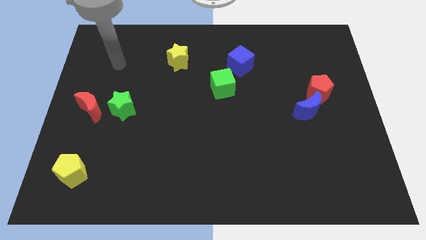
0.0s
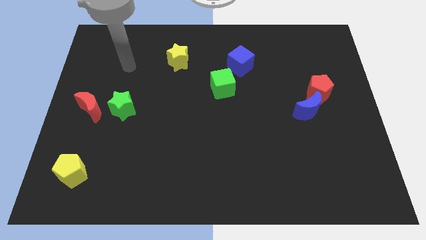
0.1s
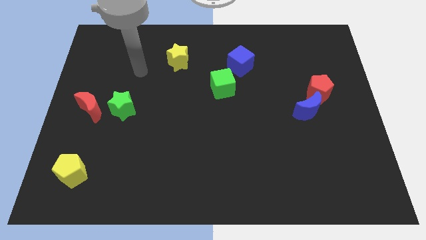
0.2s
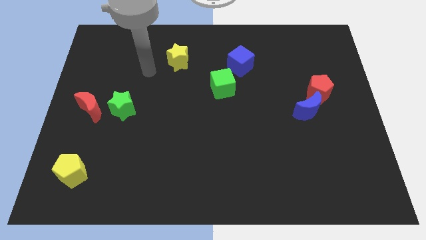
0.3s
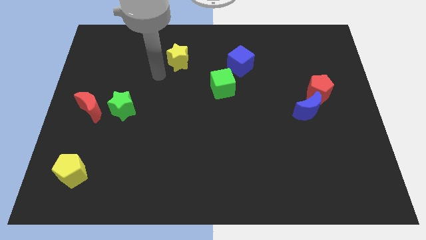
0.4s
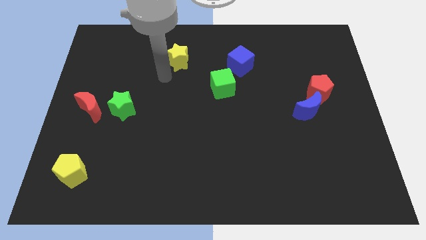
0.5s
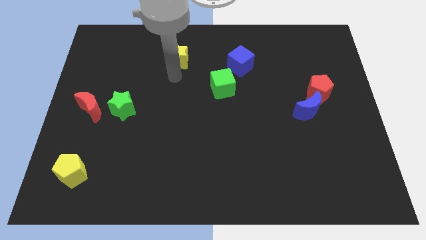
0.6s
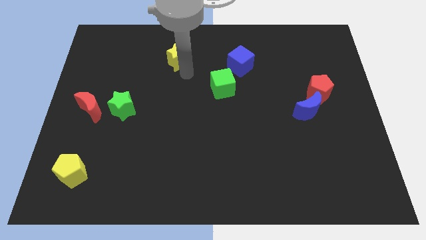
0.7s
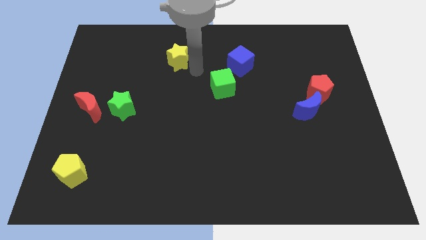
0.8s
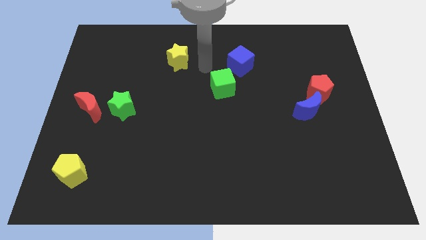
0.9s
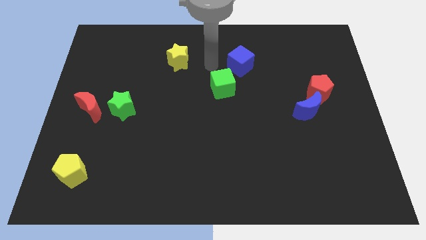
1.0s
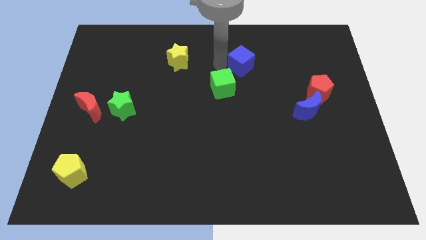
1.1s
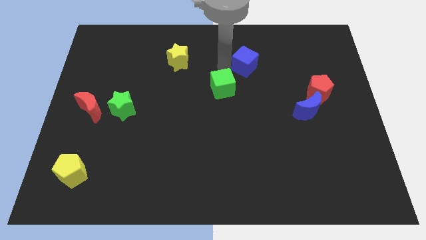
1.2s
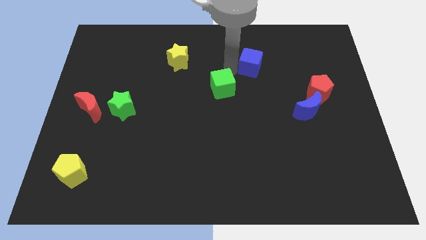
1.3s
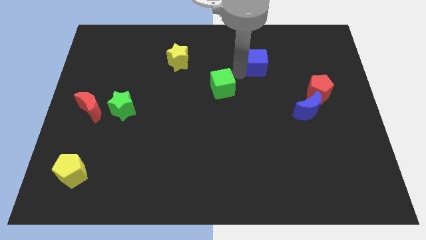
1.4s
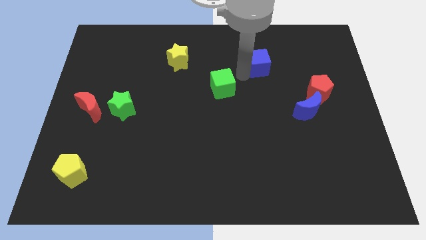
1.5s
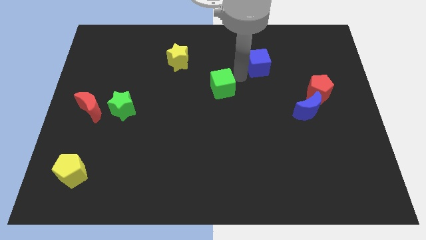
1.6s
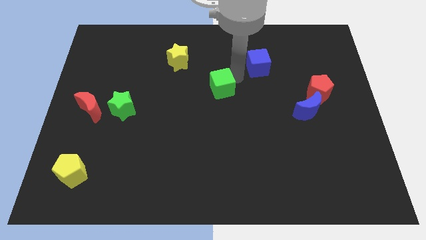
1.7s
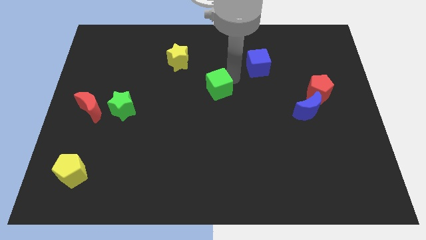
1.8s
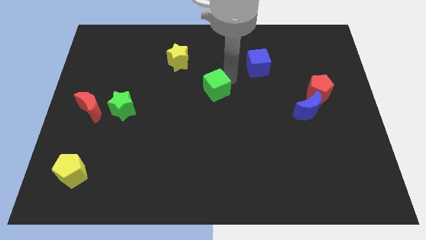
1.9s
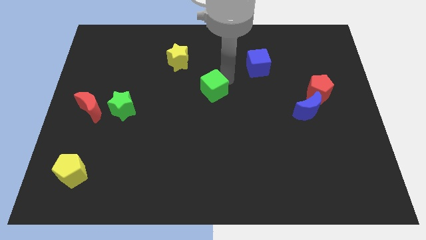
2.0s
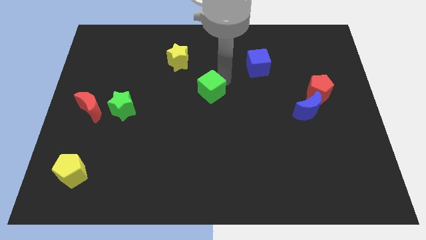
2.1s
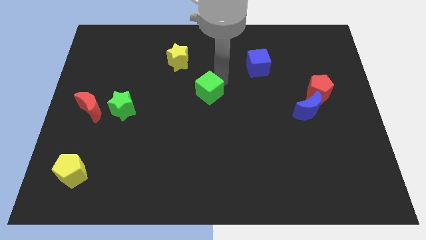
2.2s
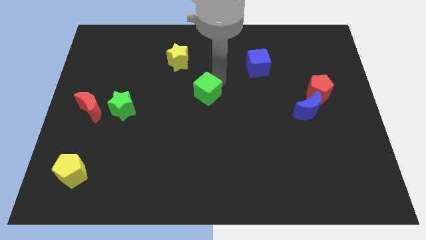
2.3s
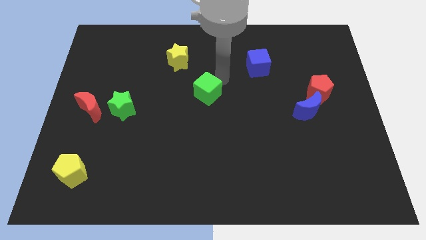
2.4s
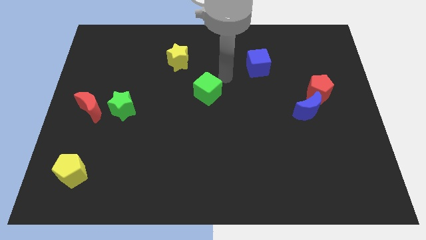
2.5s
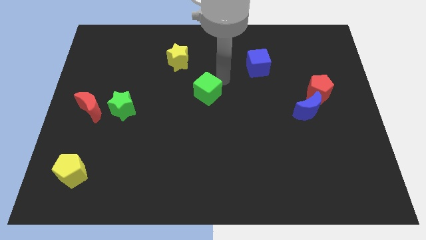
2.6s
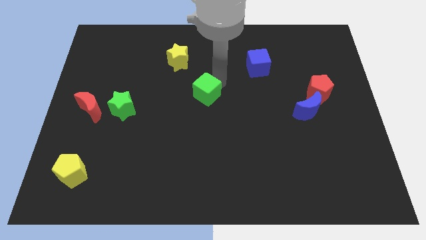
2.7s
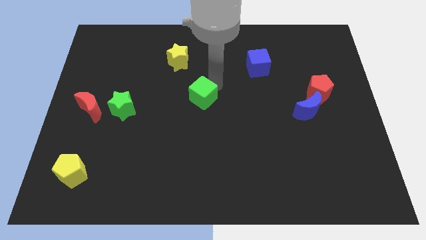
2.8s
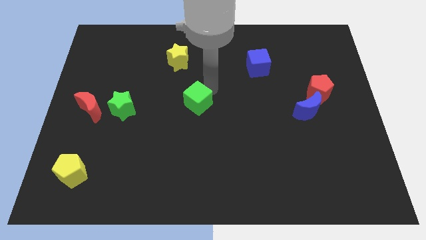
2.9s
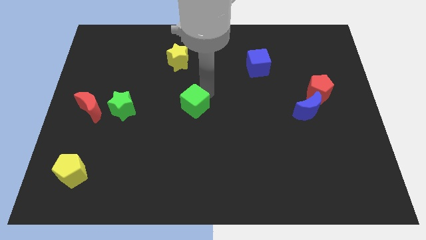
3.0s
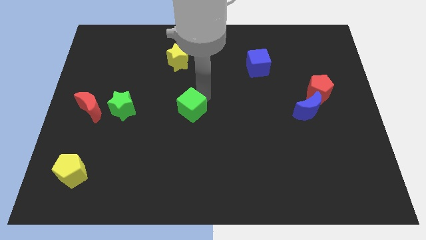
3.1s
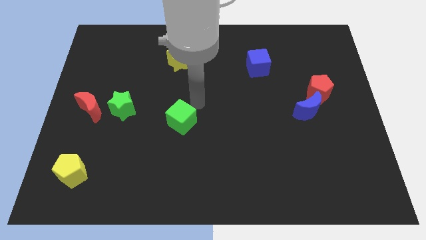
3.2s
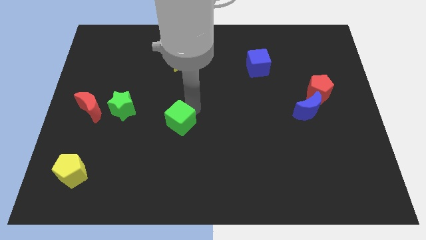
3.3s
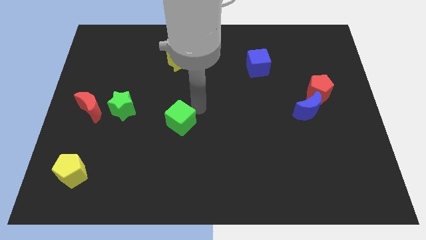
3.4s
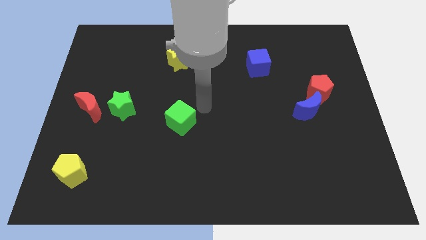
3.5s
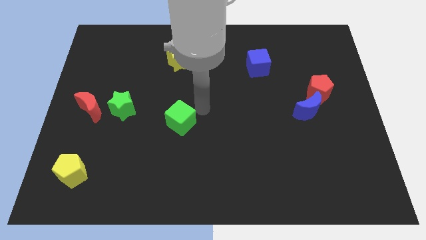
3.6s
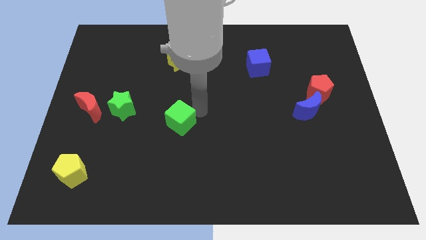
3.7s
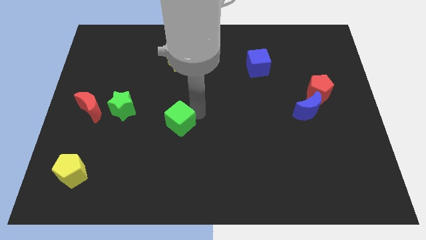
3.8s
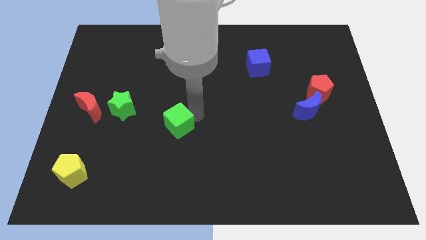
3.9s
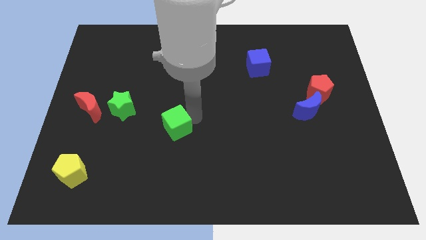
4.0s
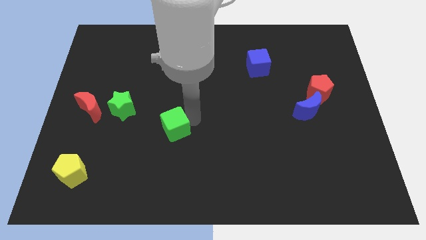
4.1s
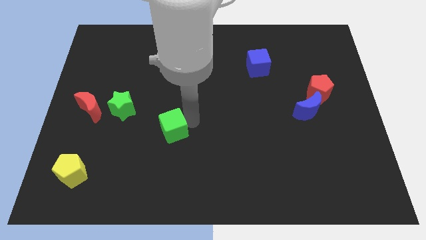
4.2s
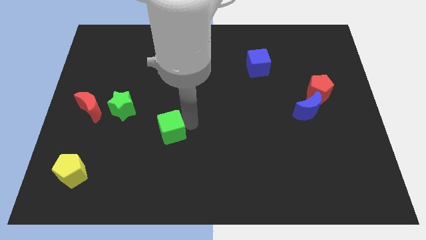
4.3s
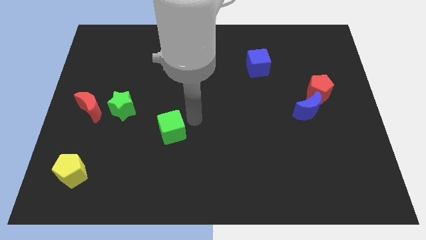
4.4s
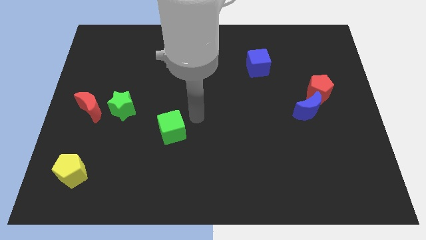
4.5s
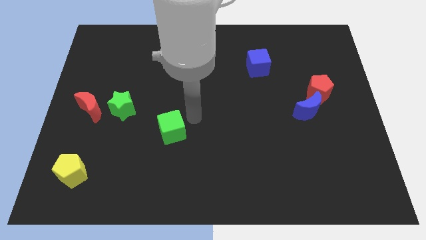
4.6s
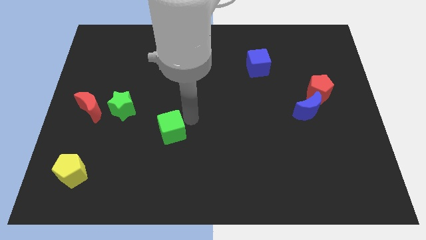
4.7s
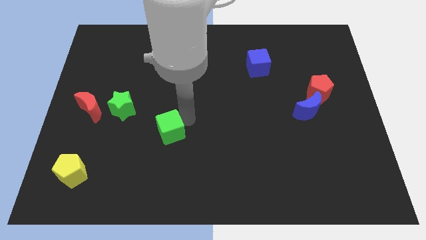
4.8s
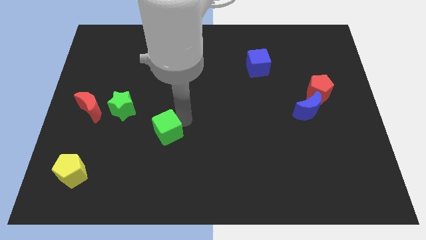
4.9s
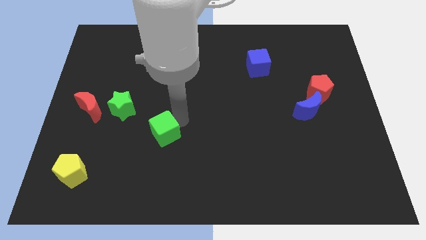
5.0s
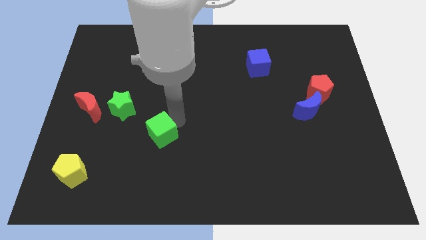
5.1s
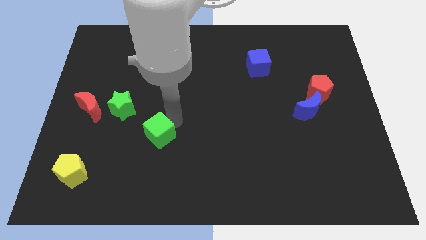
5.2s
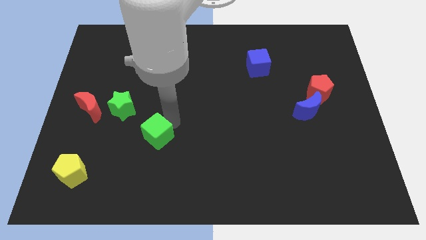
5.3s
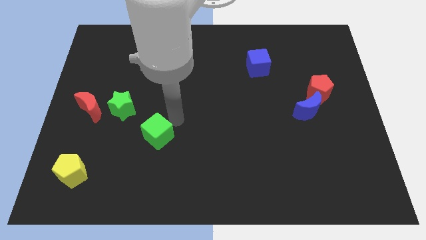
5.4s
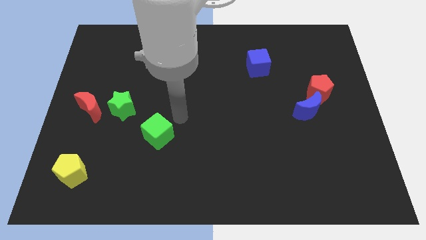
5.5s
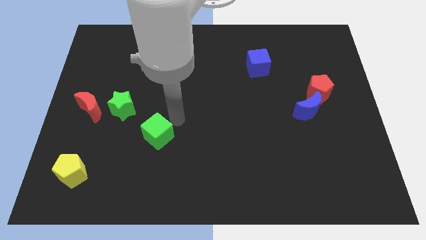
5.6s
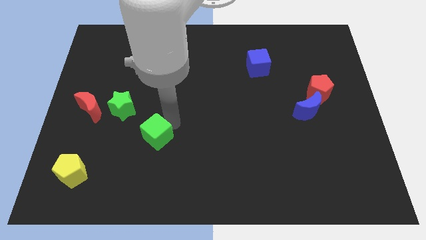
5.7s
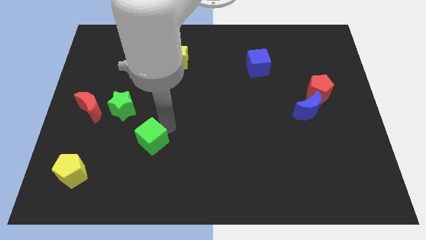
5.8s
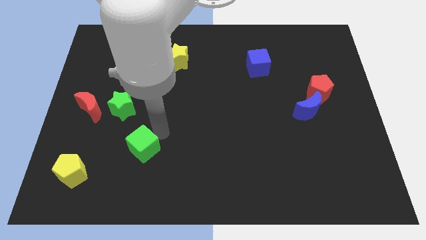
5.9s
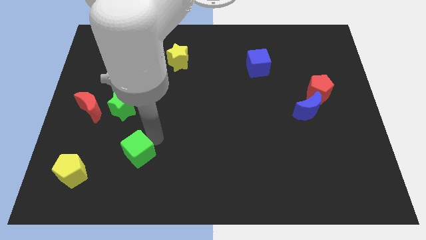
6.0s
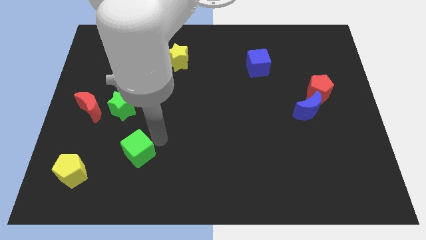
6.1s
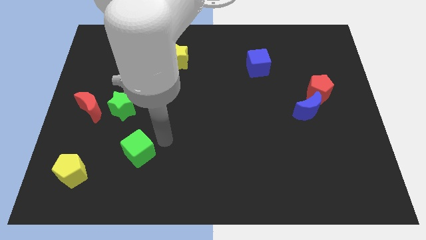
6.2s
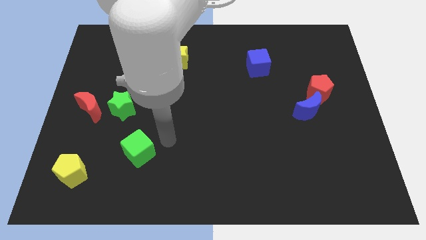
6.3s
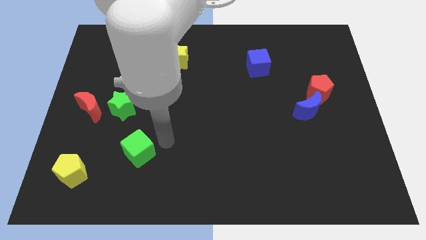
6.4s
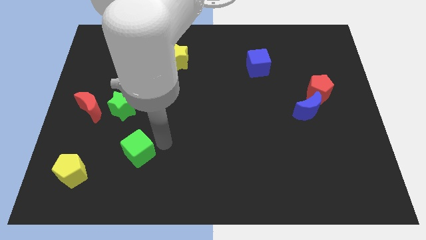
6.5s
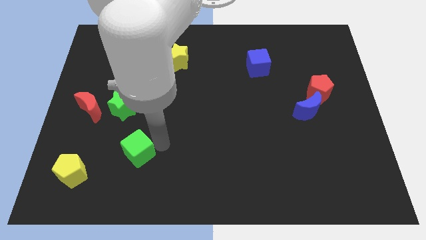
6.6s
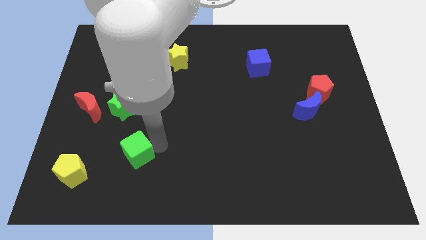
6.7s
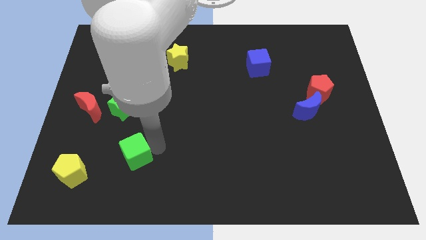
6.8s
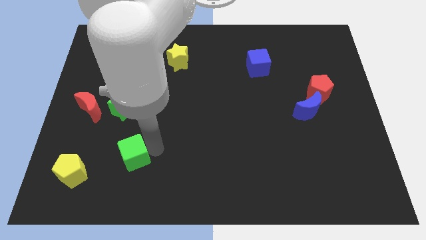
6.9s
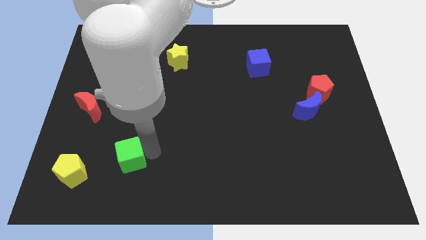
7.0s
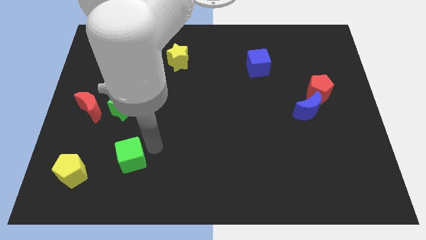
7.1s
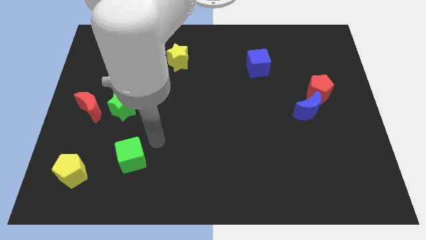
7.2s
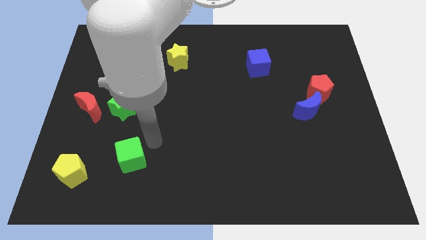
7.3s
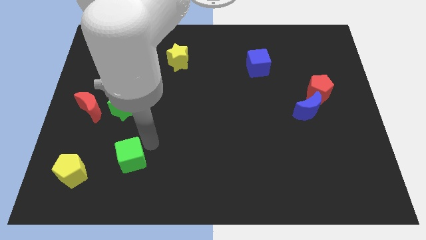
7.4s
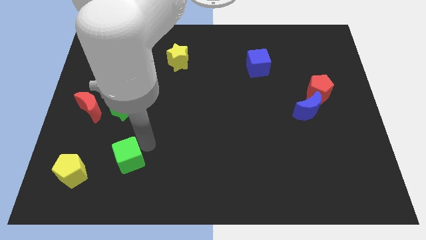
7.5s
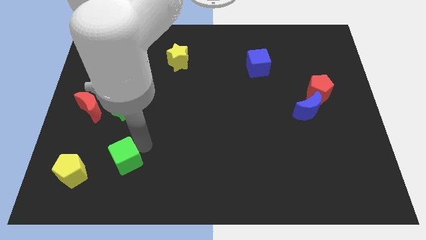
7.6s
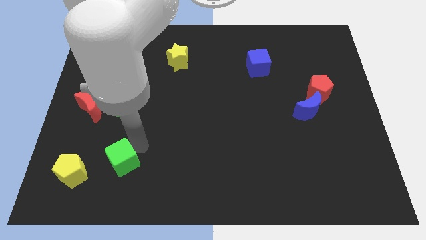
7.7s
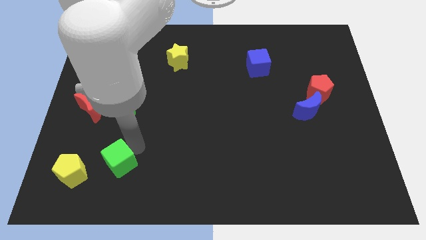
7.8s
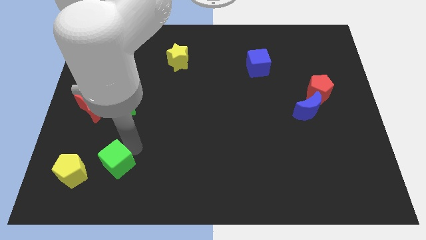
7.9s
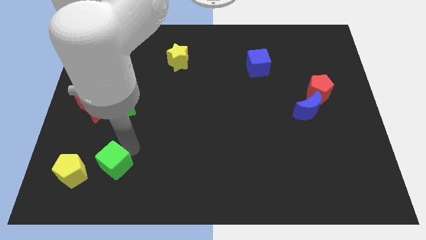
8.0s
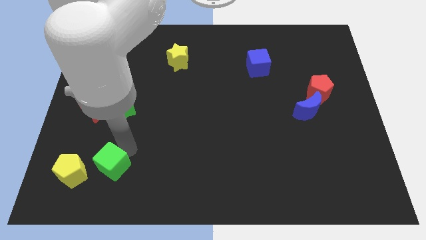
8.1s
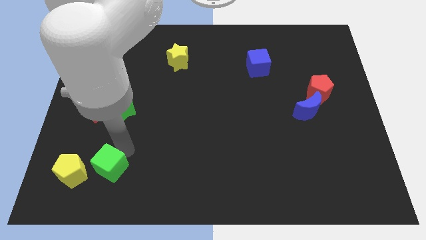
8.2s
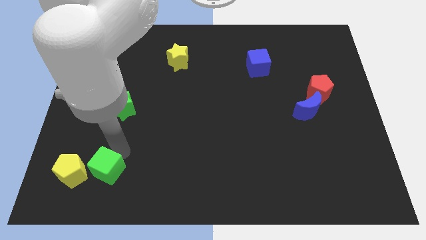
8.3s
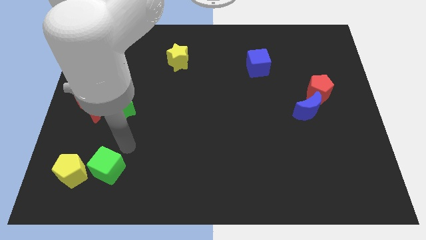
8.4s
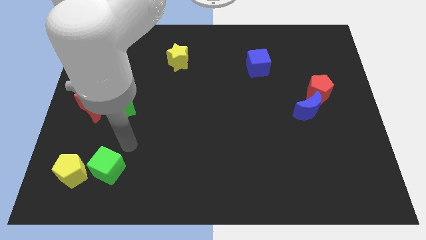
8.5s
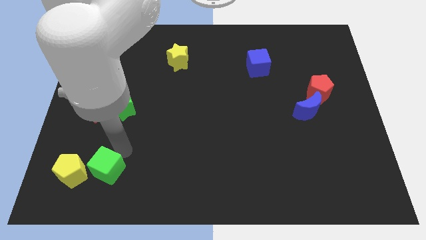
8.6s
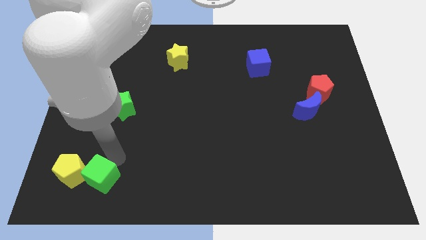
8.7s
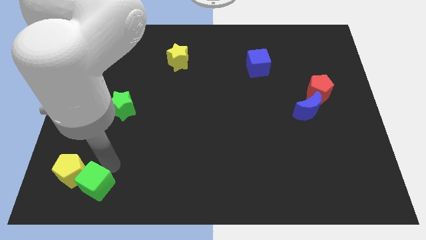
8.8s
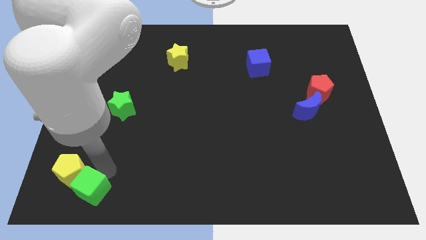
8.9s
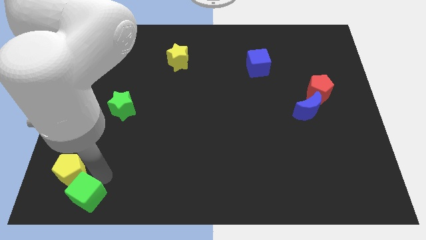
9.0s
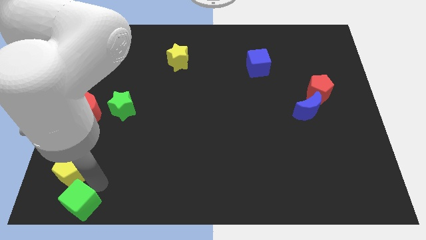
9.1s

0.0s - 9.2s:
put the green cube to the lower left corner
